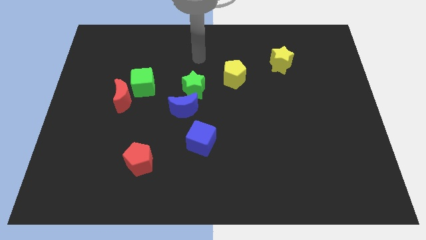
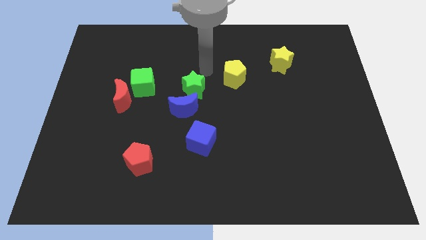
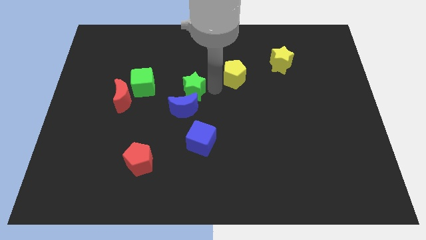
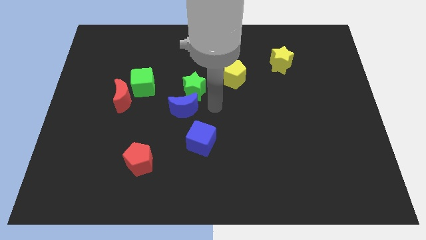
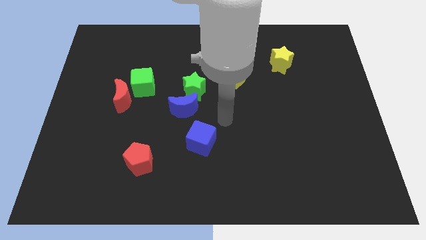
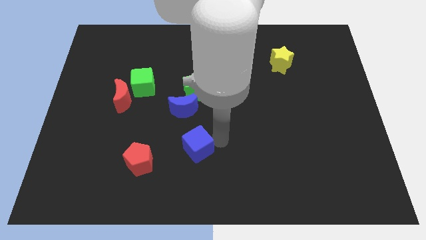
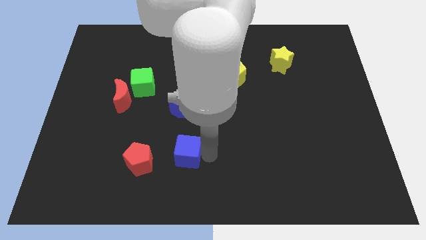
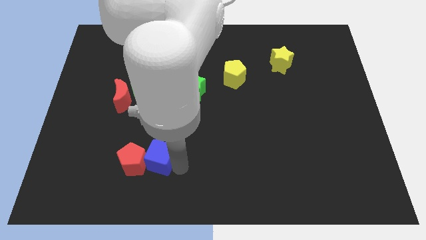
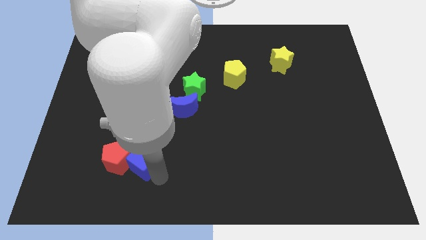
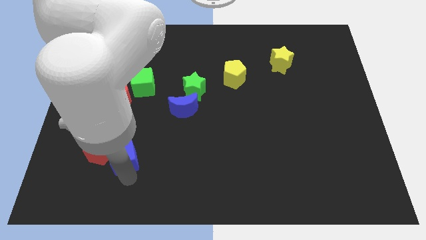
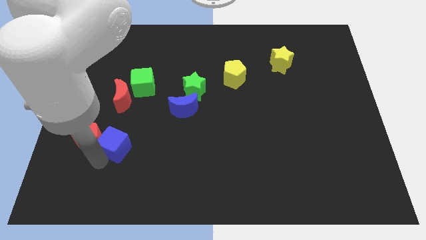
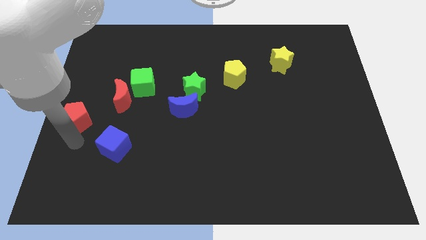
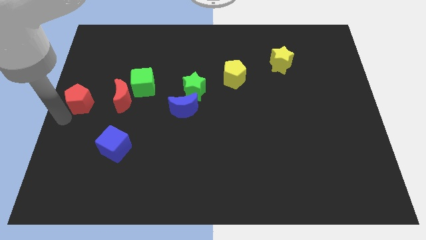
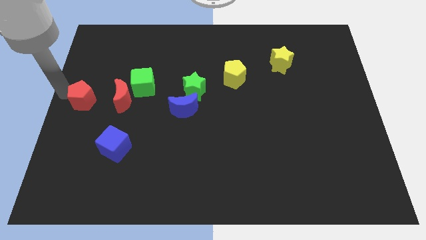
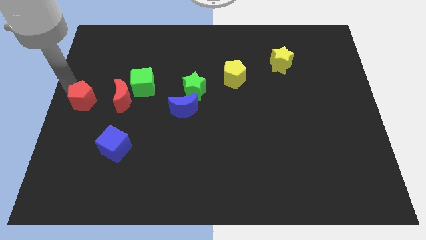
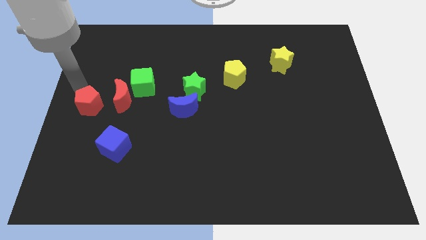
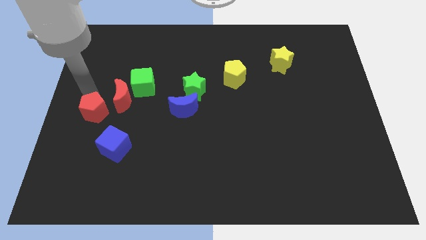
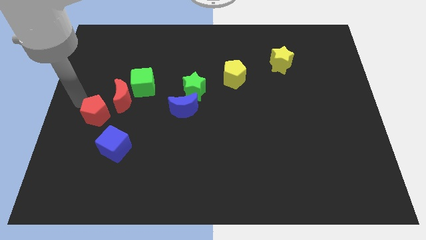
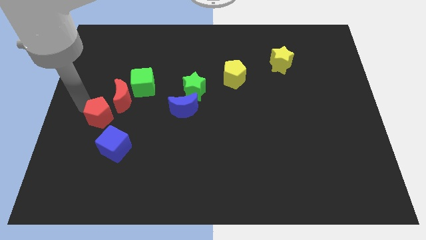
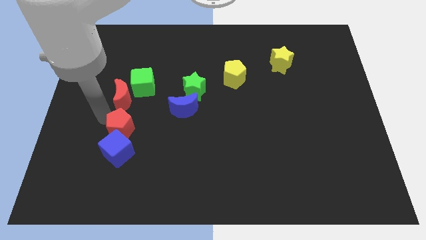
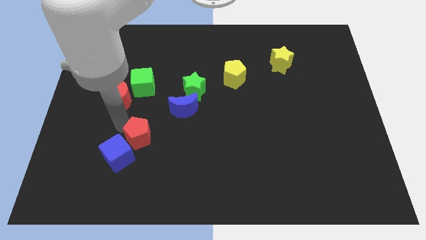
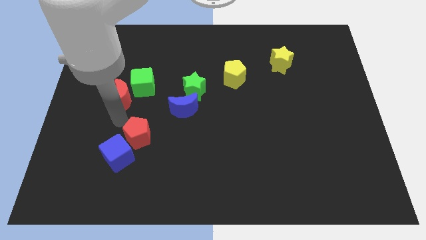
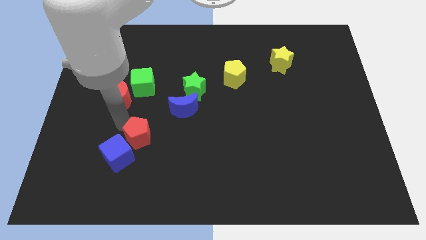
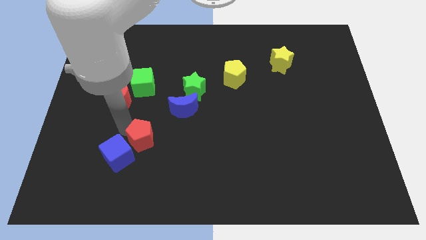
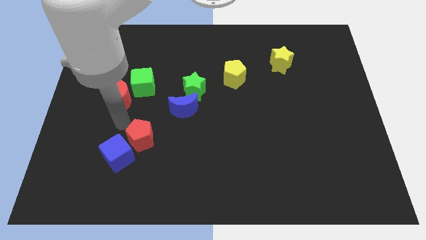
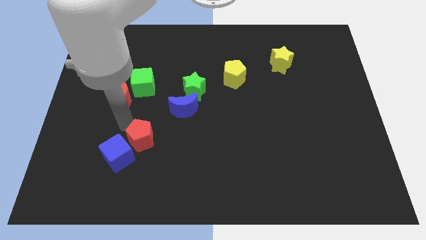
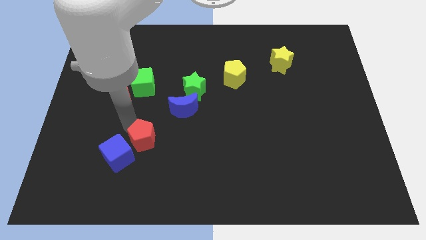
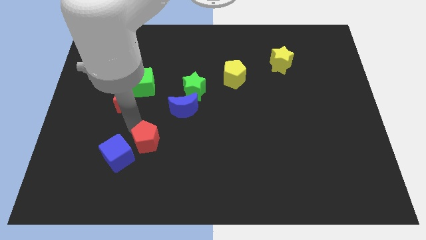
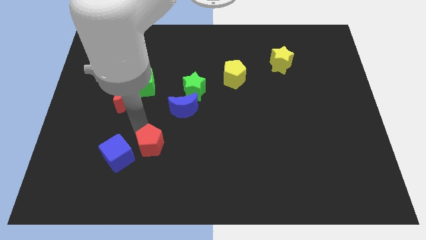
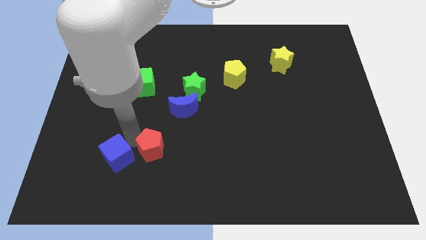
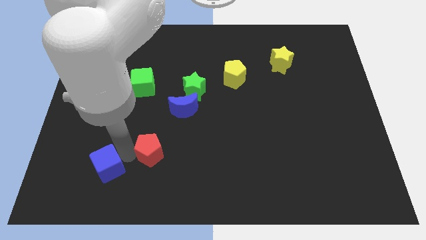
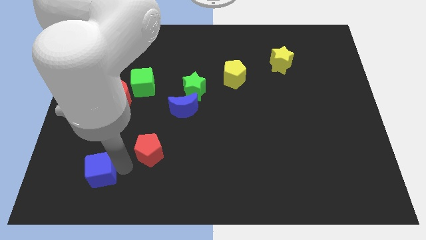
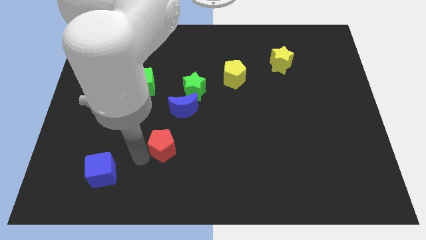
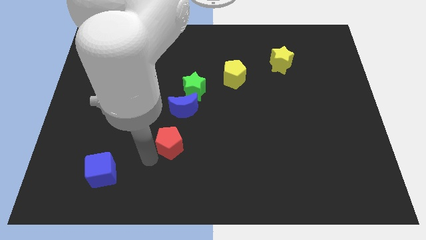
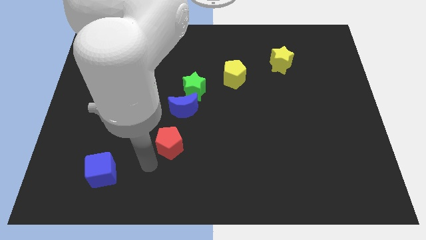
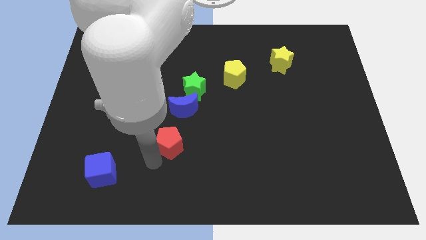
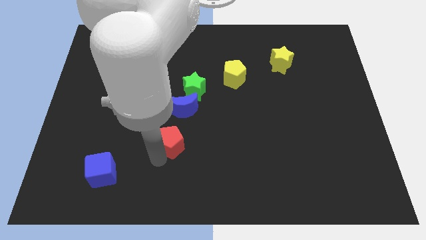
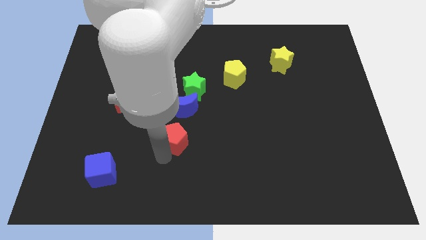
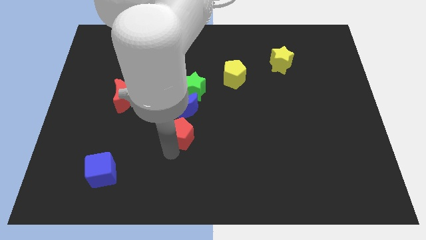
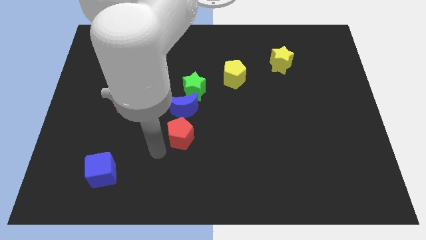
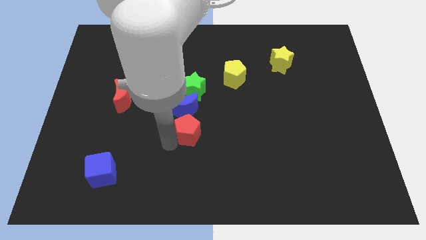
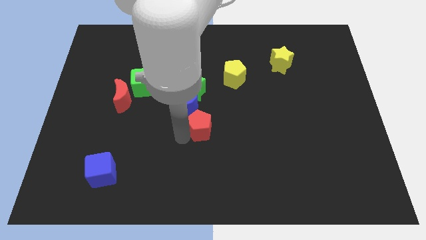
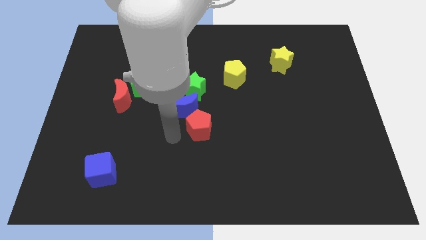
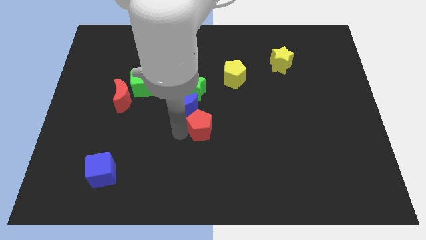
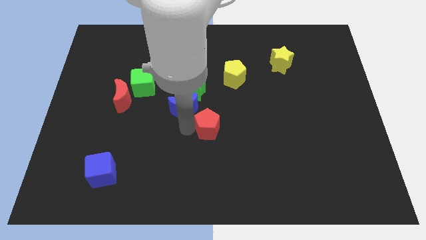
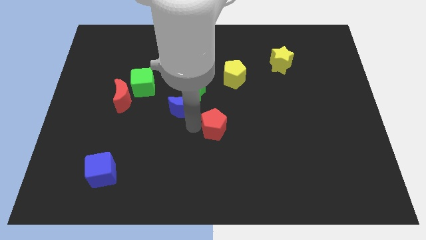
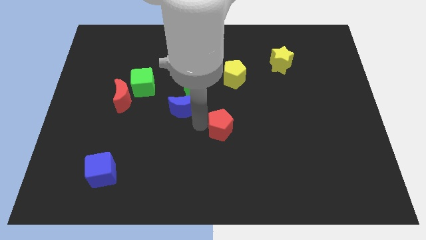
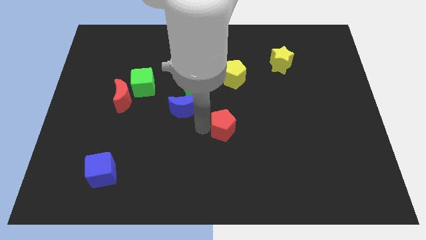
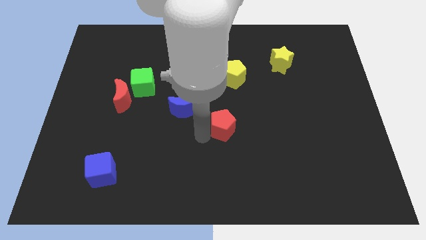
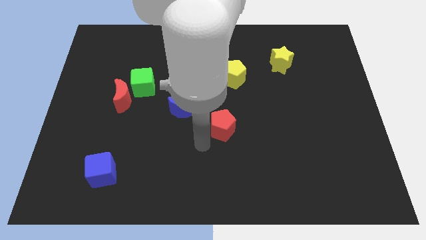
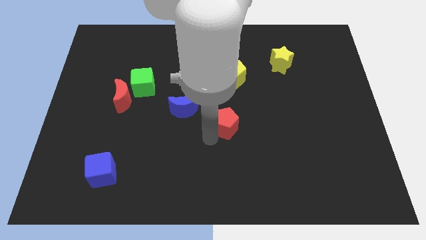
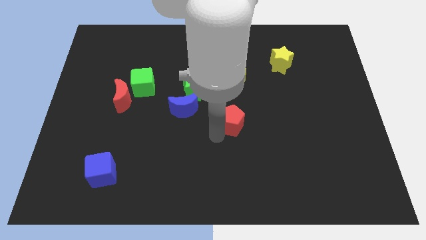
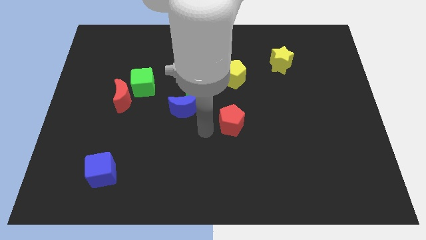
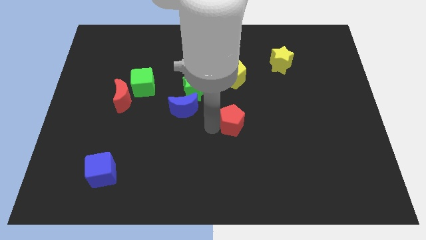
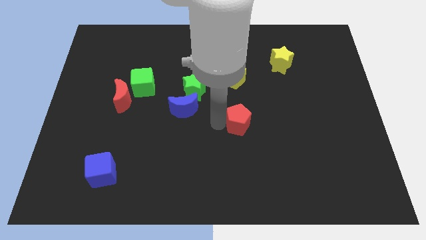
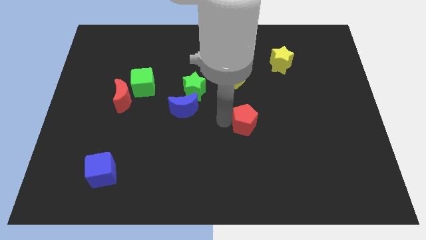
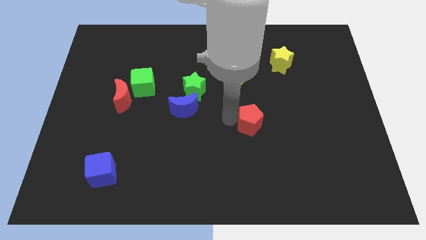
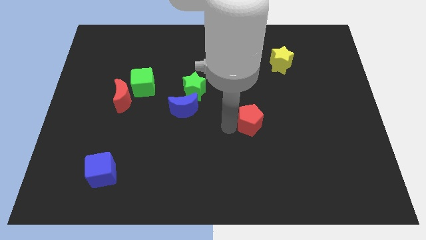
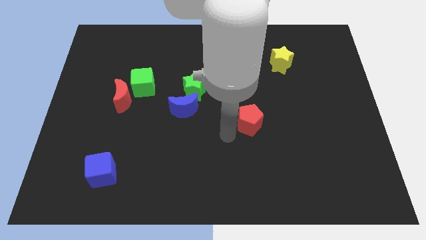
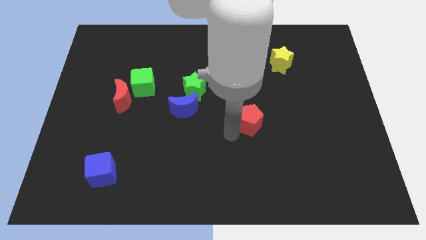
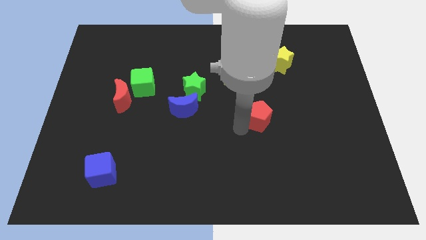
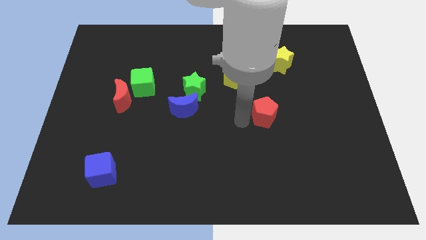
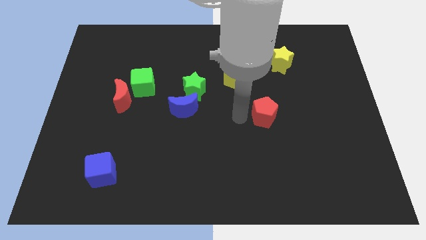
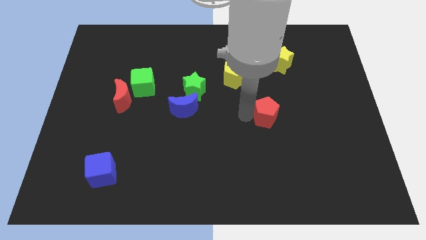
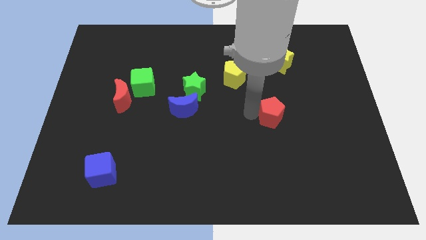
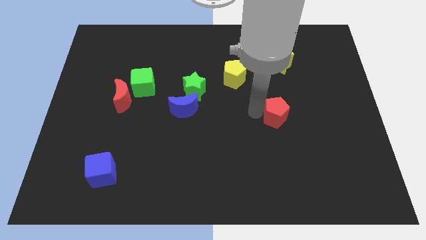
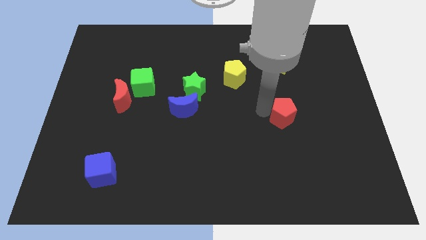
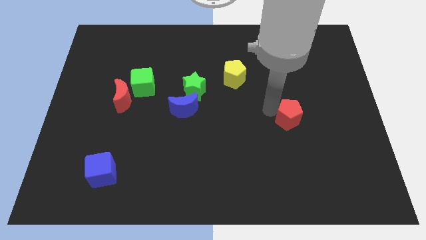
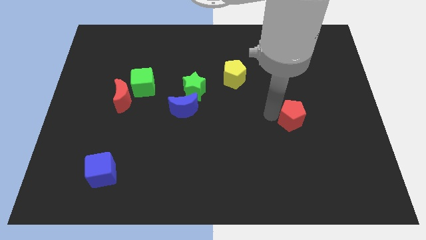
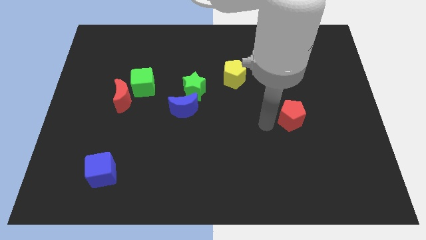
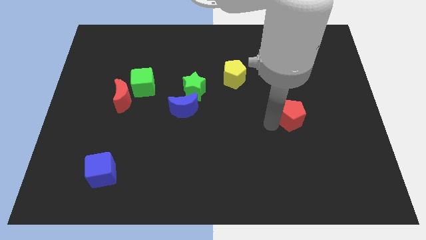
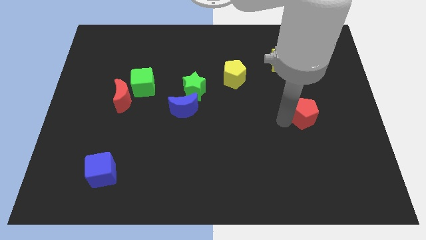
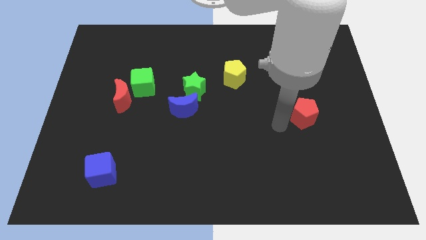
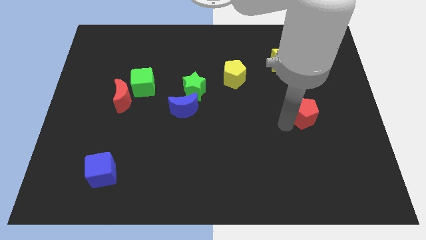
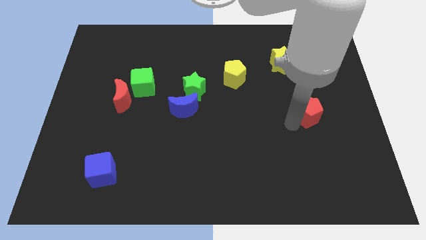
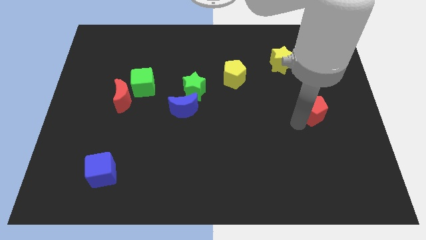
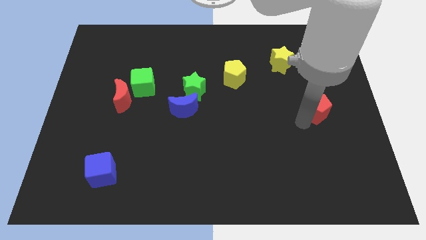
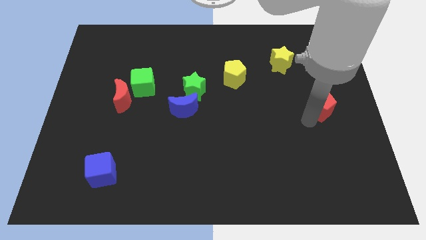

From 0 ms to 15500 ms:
push the red pentagon to the center right
